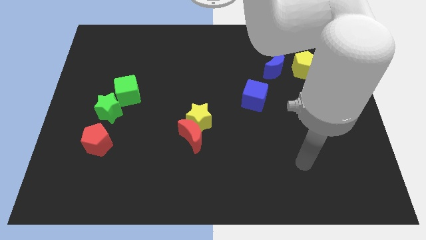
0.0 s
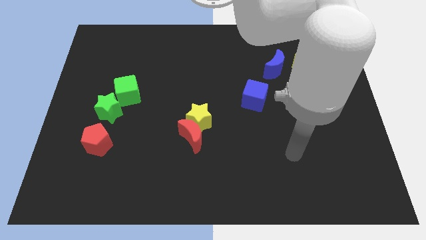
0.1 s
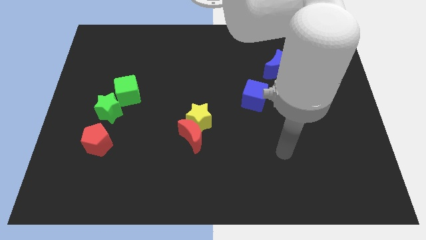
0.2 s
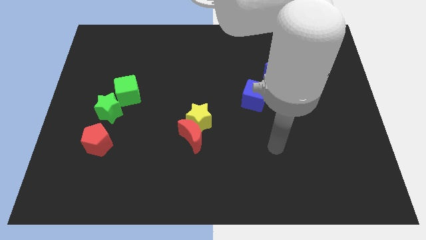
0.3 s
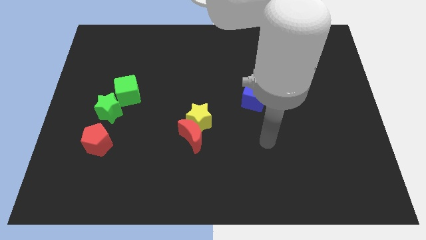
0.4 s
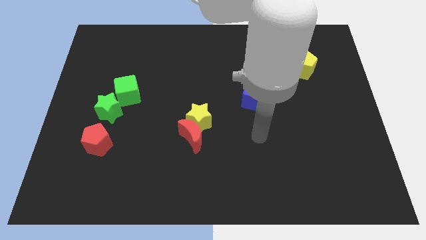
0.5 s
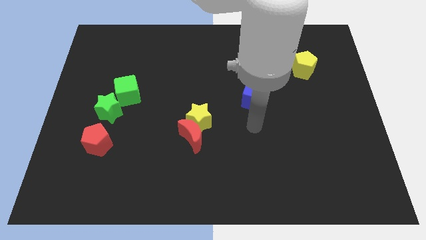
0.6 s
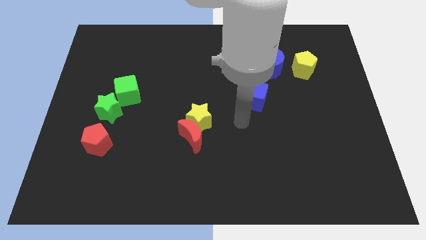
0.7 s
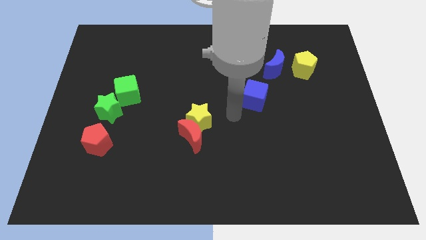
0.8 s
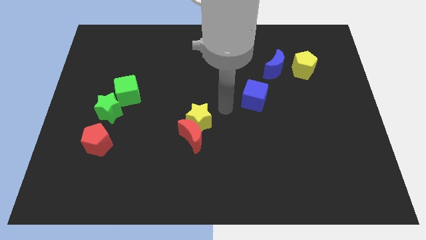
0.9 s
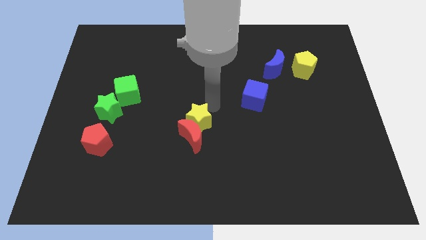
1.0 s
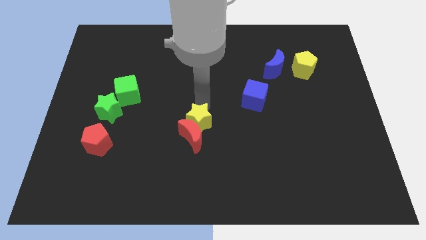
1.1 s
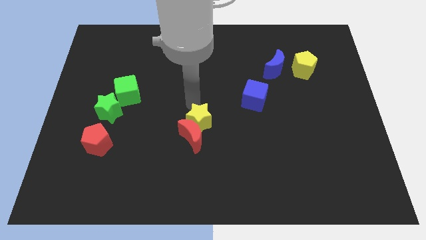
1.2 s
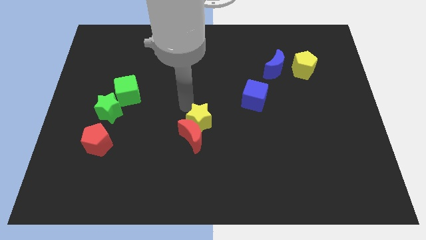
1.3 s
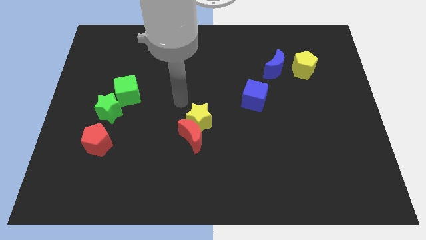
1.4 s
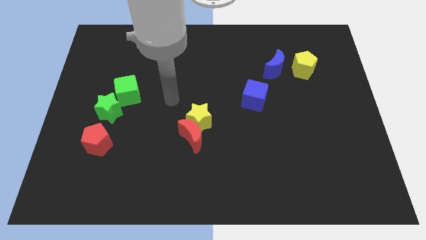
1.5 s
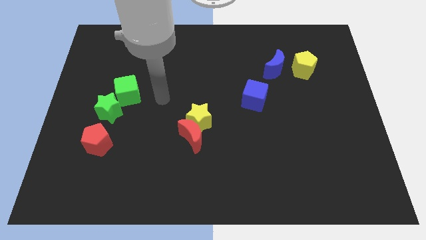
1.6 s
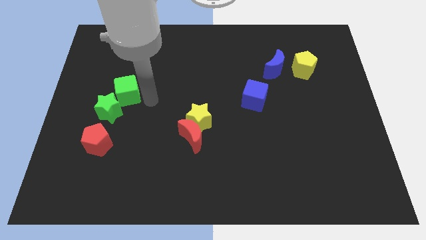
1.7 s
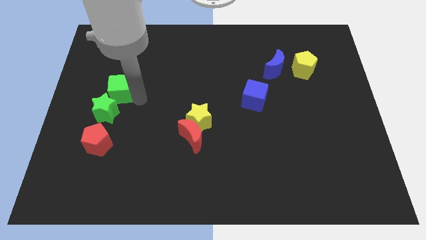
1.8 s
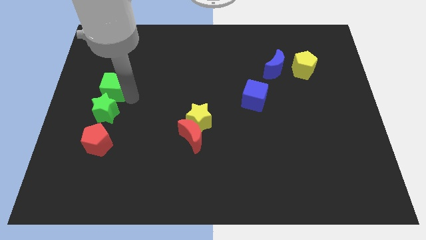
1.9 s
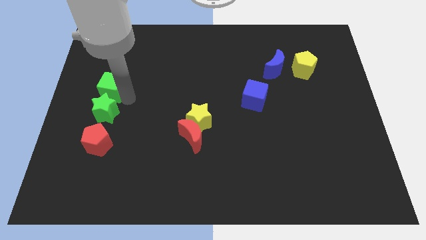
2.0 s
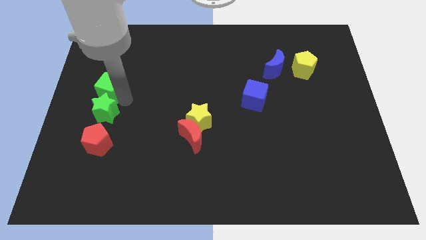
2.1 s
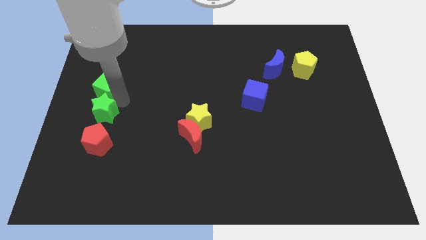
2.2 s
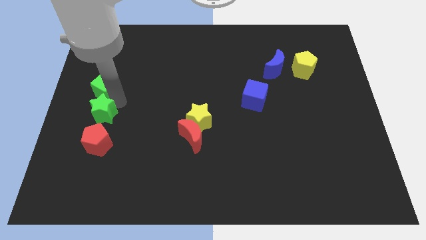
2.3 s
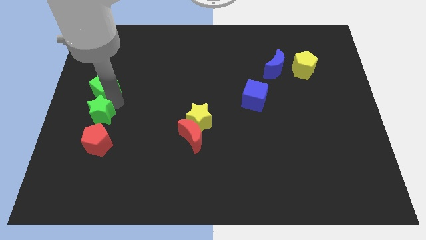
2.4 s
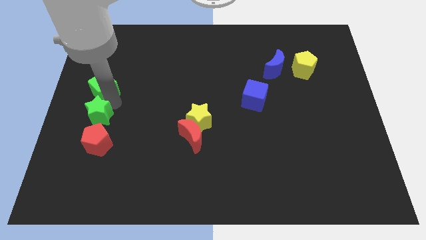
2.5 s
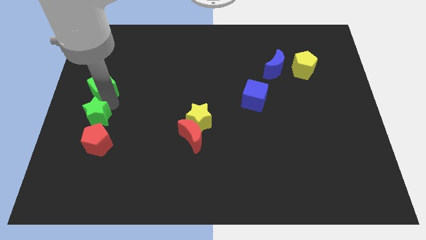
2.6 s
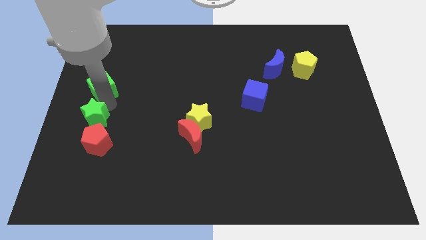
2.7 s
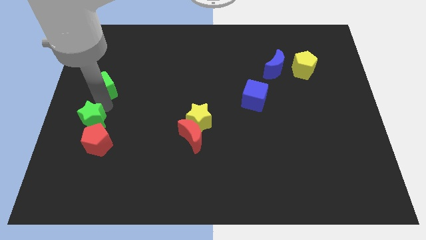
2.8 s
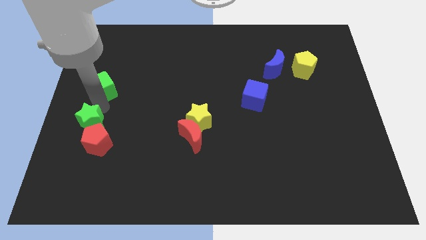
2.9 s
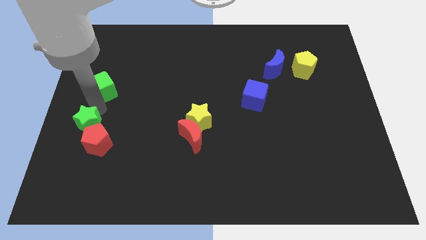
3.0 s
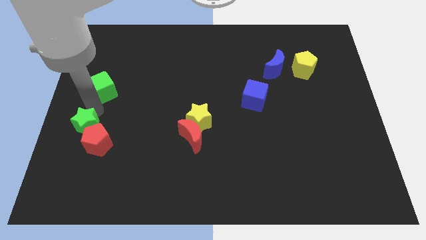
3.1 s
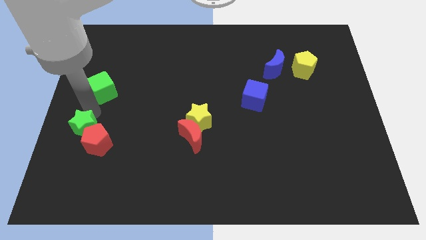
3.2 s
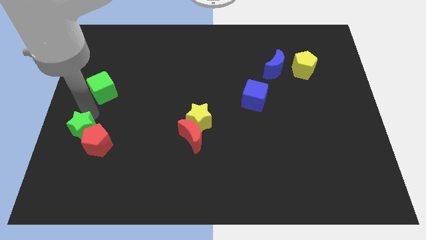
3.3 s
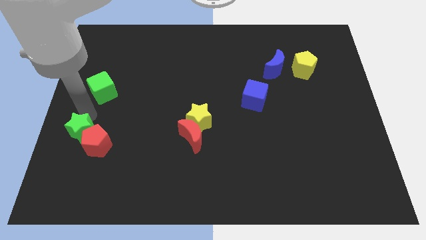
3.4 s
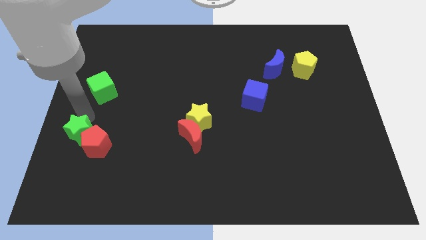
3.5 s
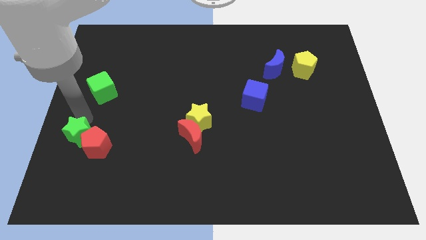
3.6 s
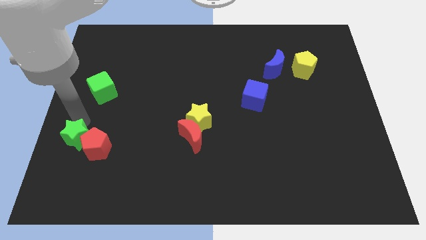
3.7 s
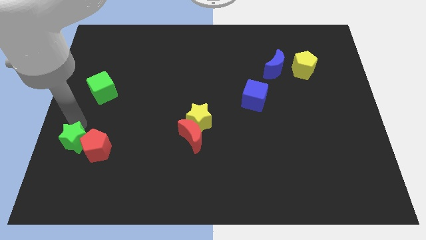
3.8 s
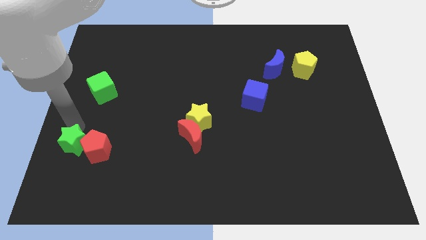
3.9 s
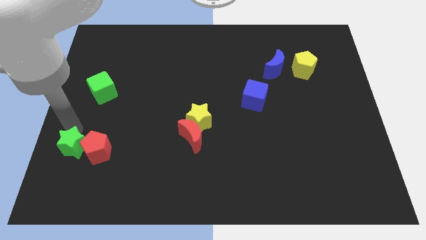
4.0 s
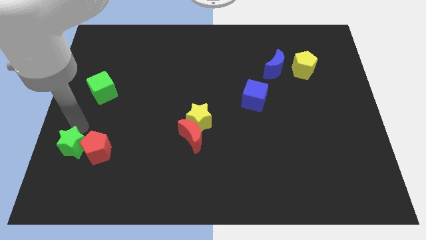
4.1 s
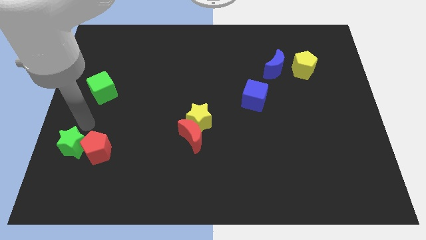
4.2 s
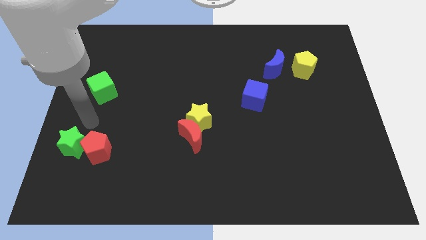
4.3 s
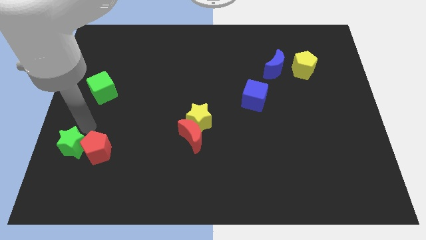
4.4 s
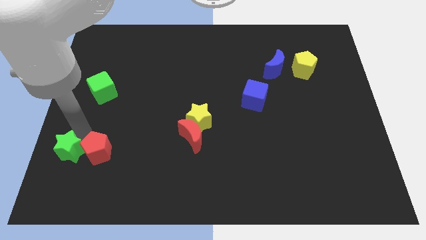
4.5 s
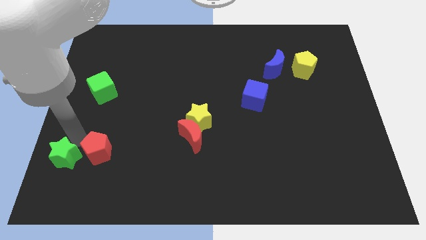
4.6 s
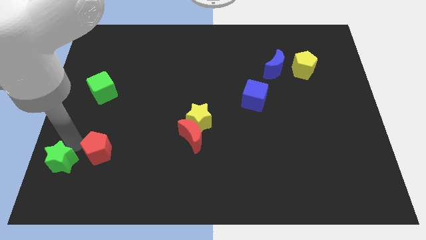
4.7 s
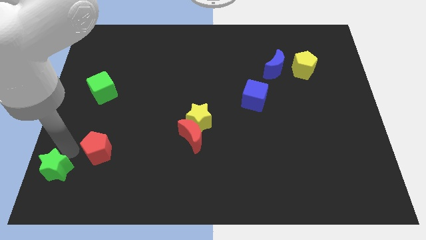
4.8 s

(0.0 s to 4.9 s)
push the green star to the bottom left

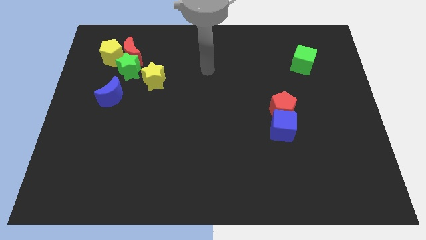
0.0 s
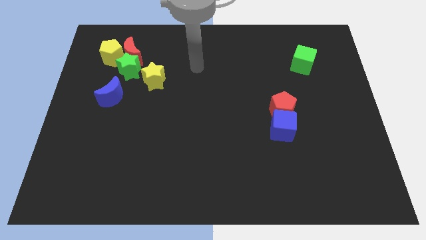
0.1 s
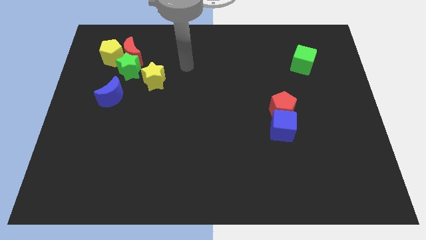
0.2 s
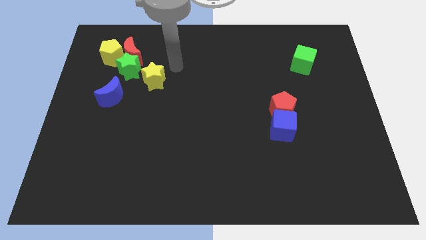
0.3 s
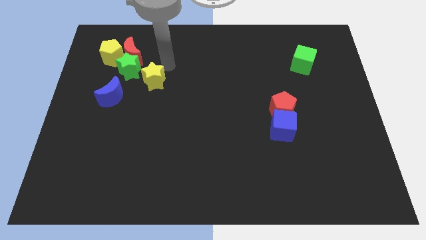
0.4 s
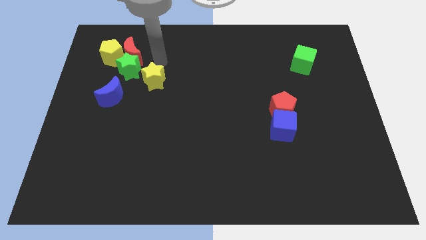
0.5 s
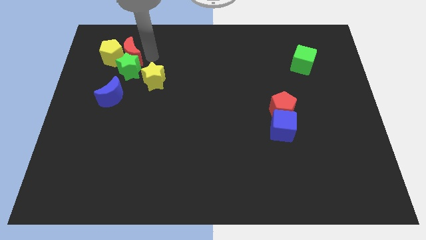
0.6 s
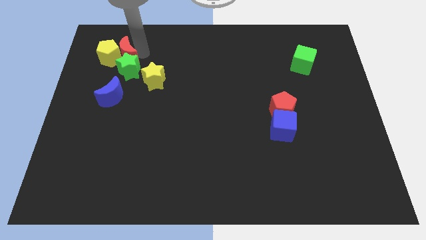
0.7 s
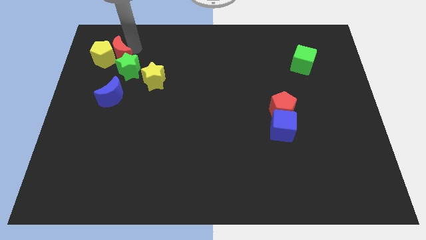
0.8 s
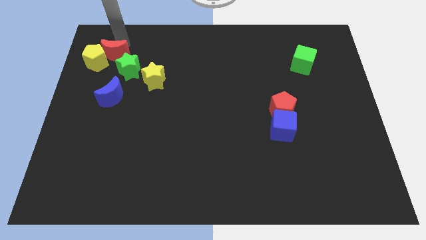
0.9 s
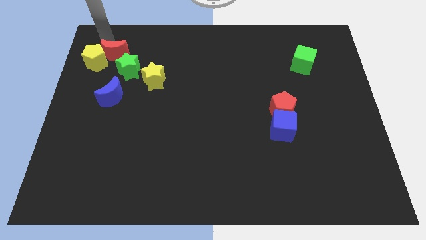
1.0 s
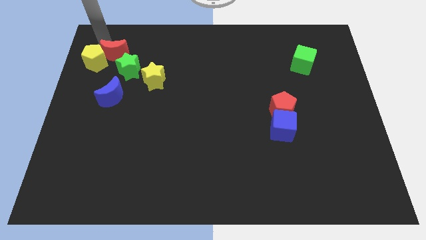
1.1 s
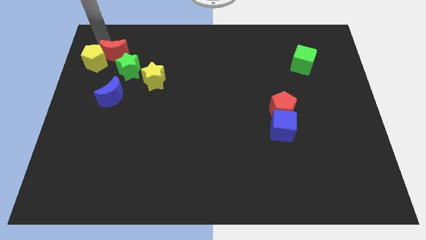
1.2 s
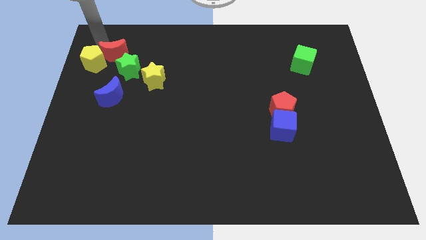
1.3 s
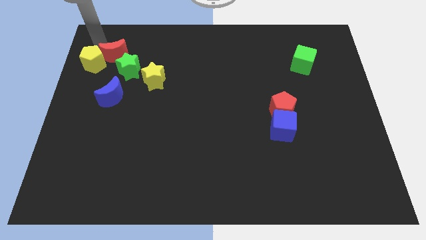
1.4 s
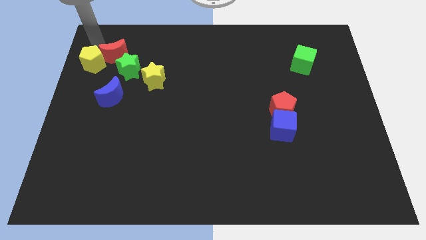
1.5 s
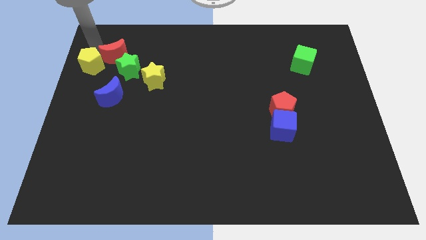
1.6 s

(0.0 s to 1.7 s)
push the yellow pentagon to the center left
